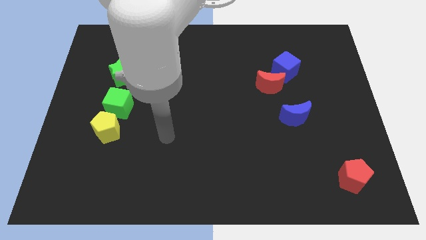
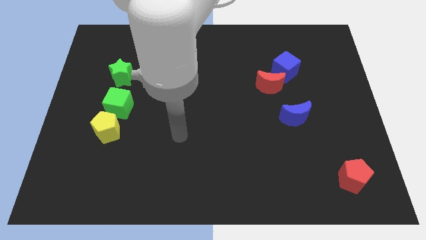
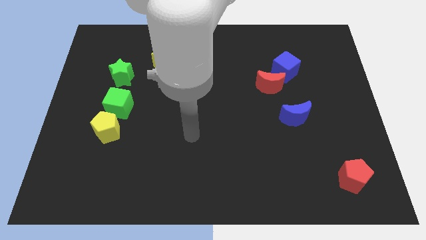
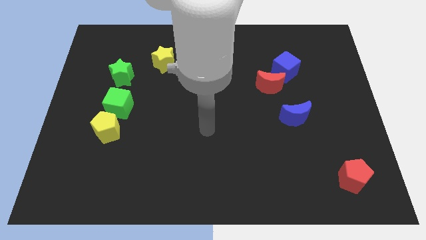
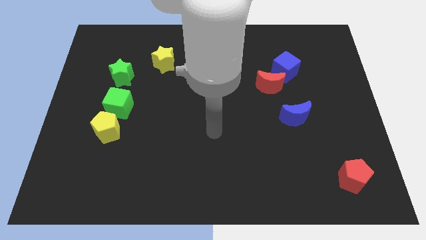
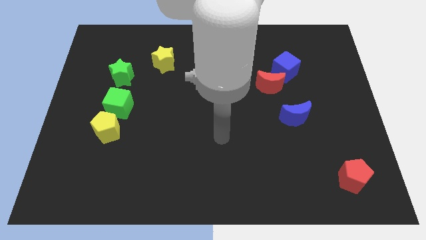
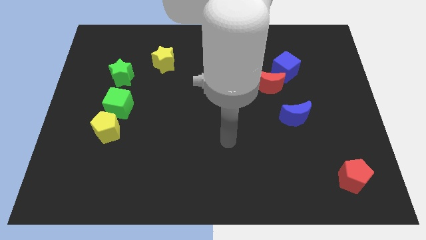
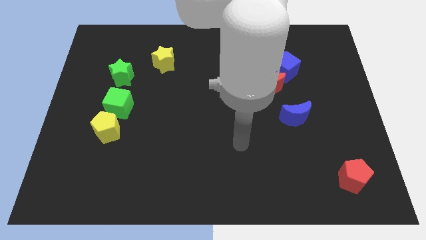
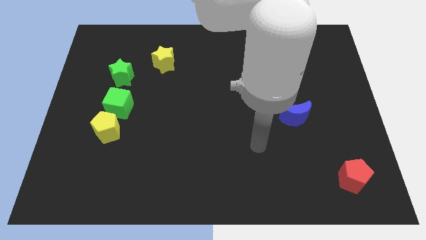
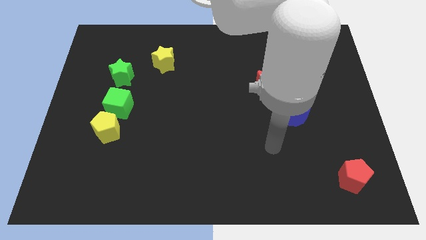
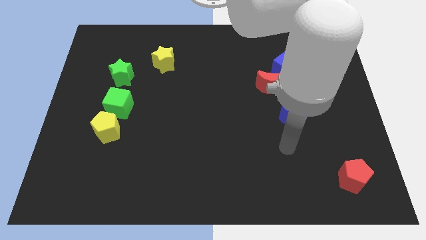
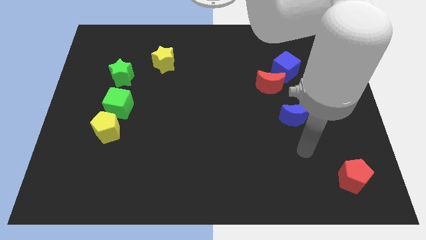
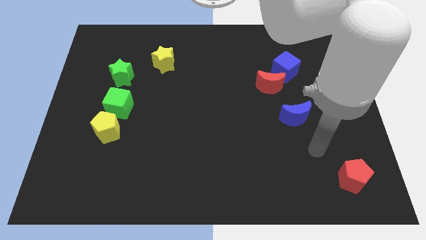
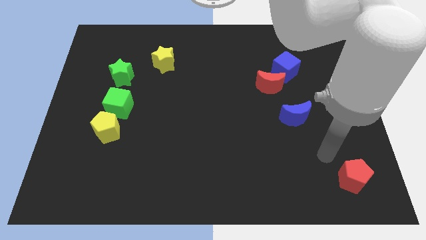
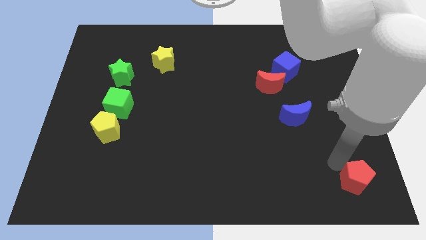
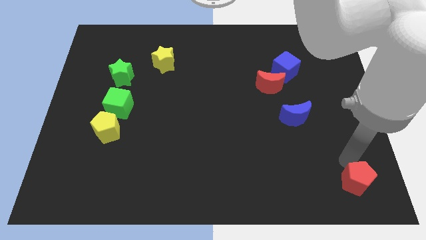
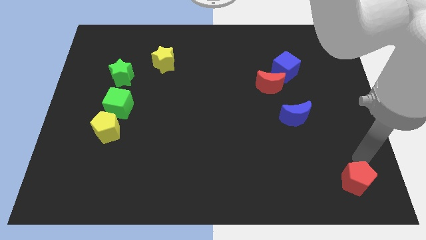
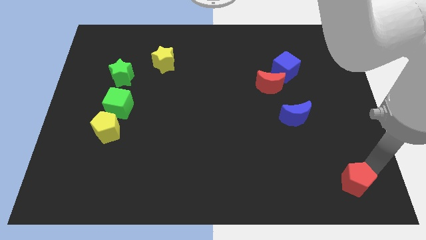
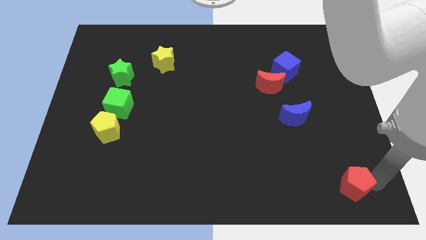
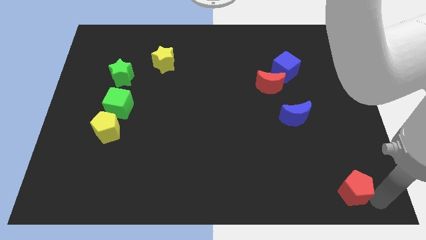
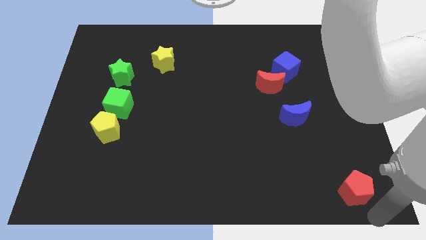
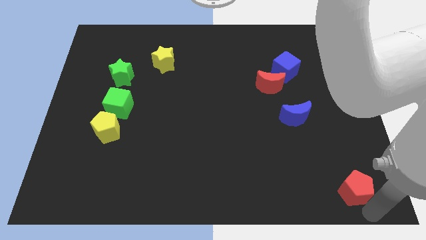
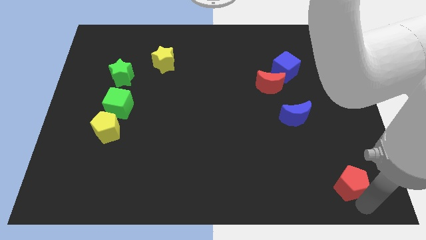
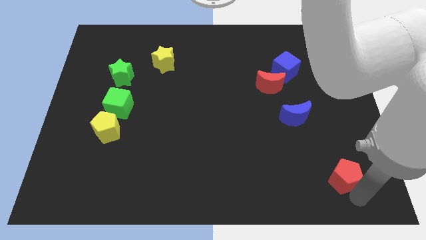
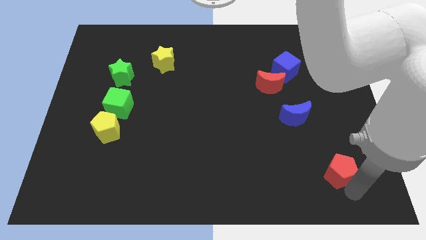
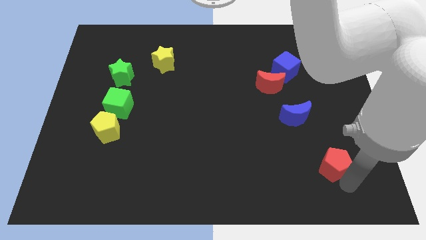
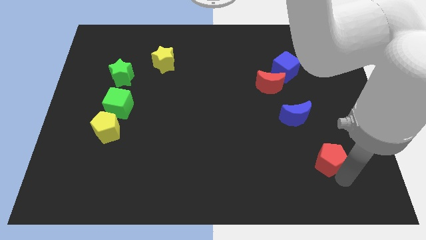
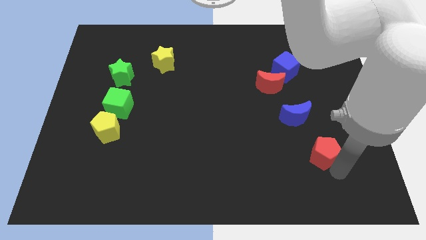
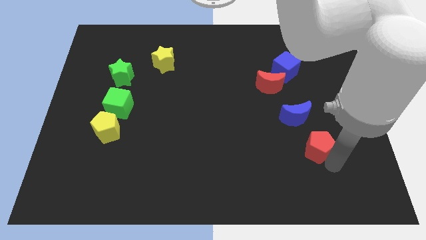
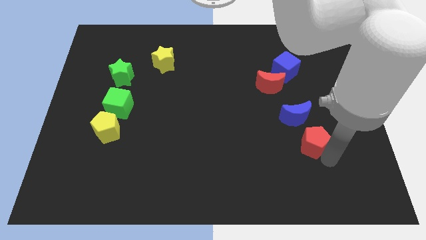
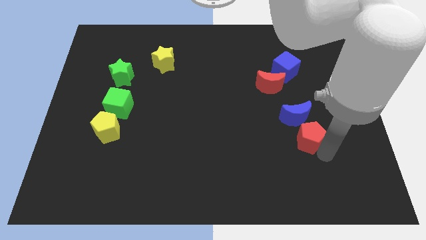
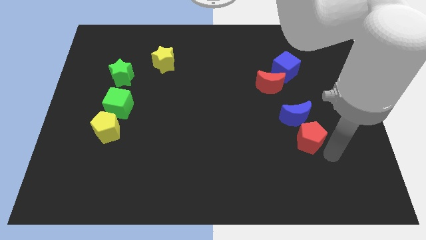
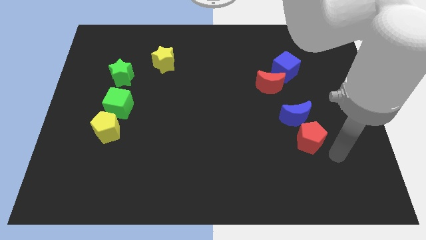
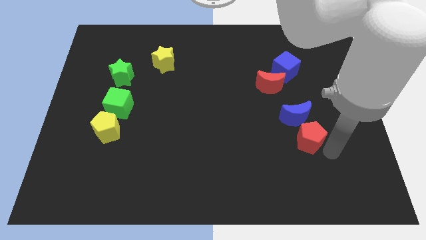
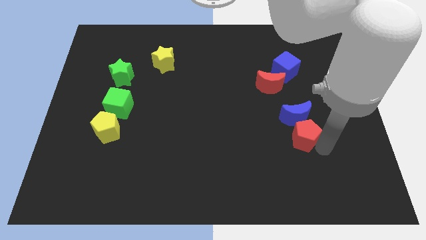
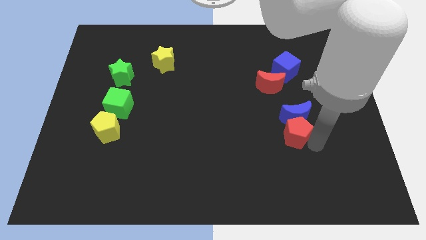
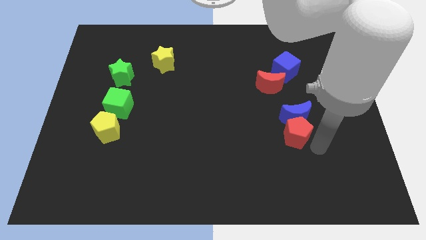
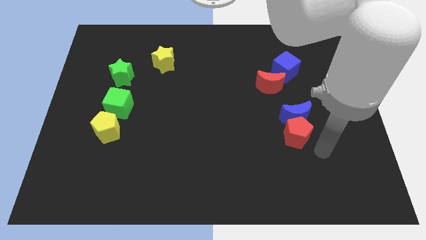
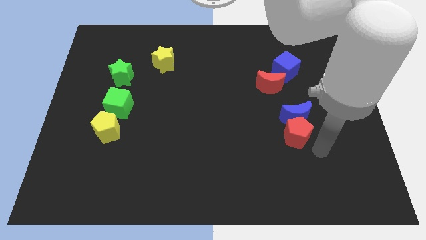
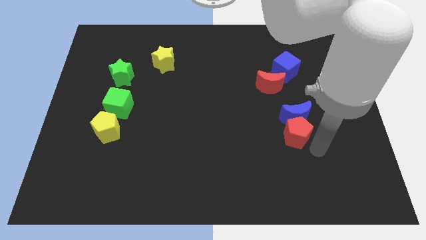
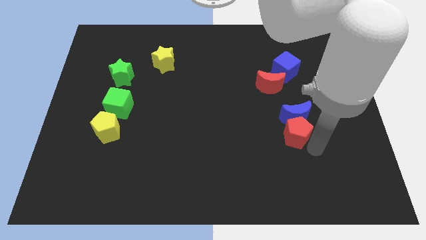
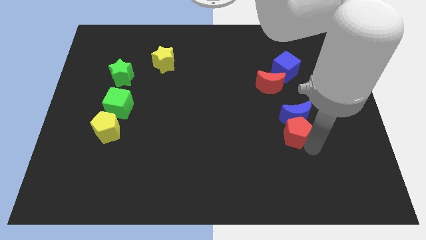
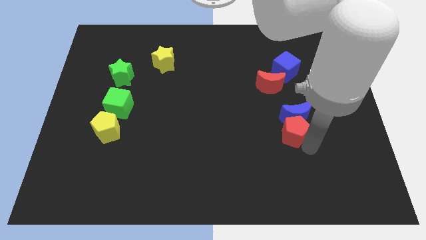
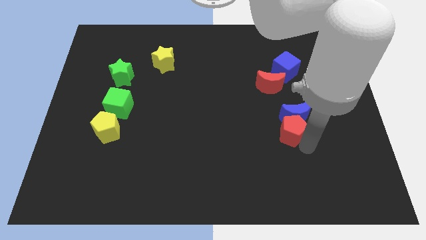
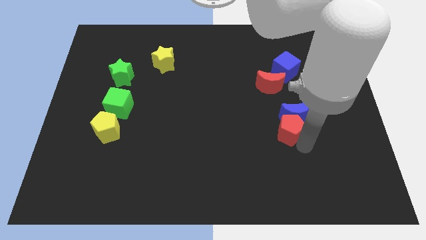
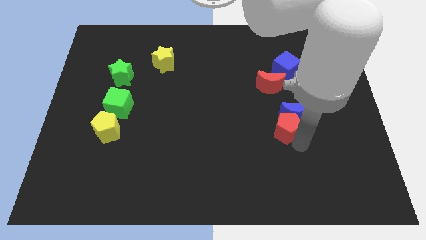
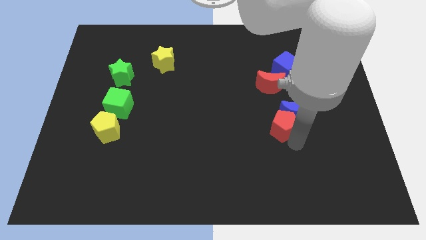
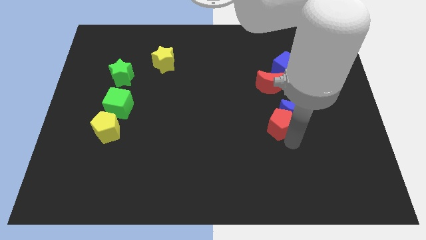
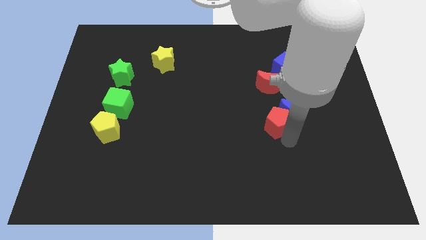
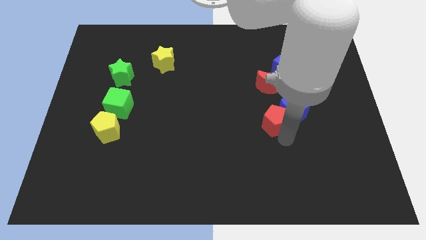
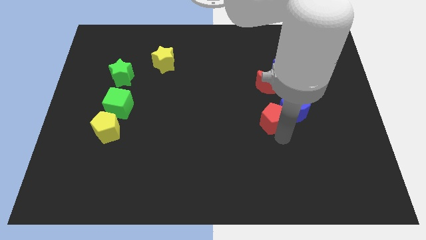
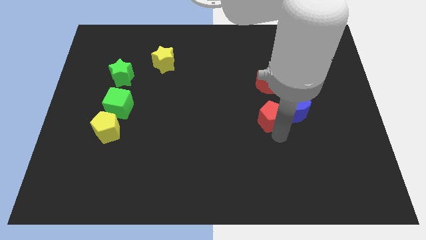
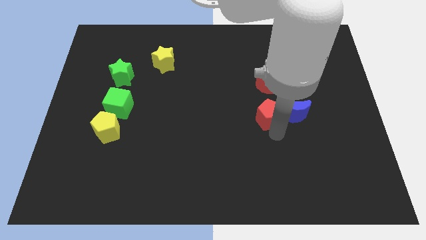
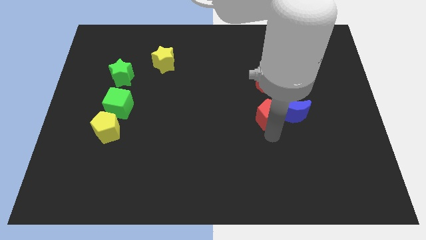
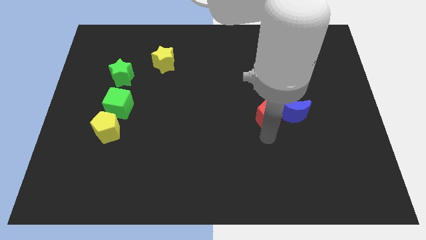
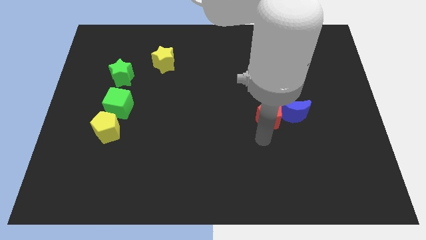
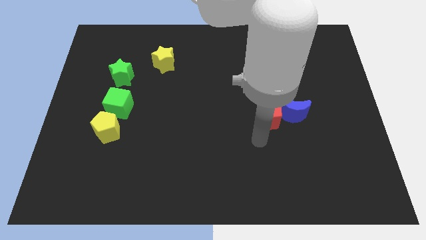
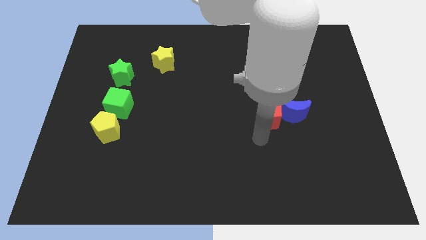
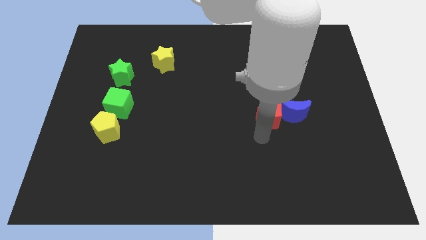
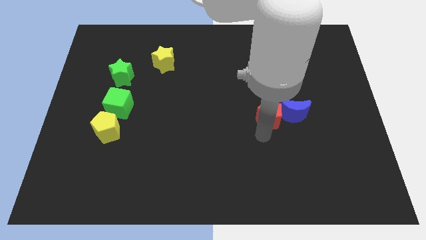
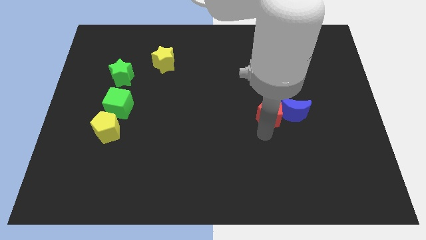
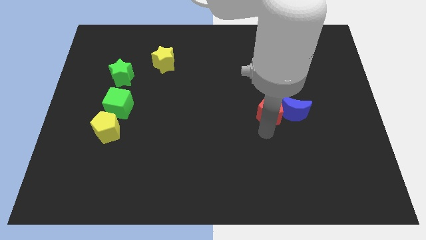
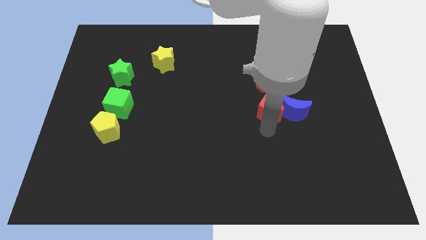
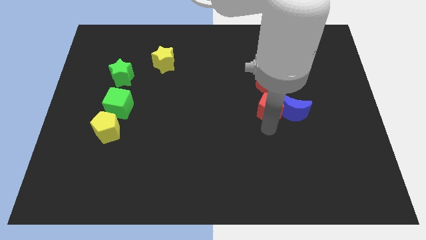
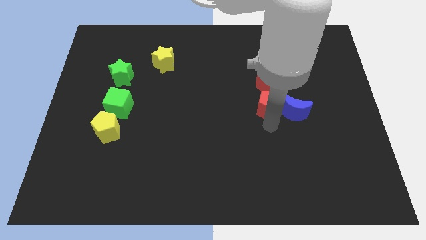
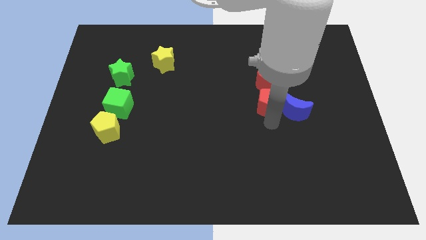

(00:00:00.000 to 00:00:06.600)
slide the red pentagon towards the red moon
